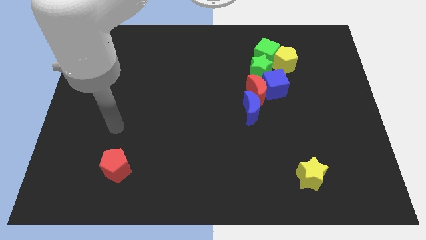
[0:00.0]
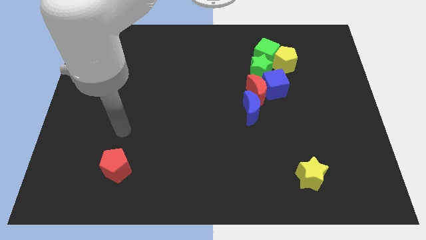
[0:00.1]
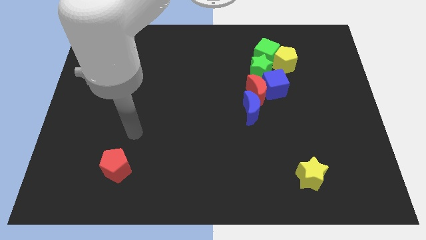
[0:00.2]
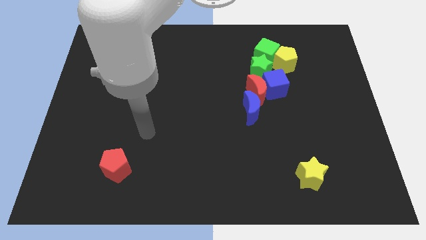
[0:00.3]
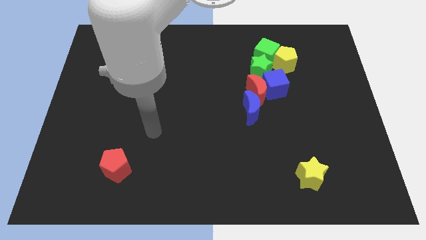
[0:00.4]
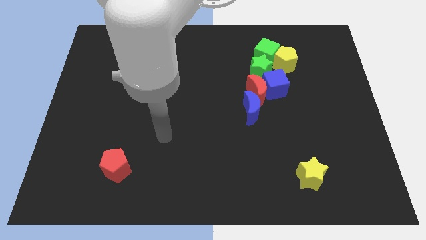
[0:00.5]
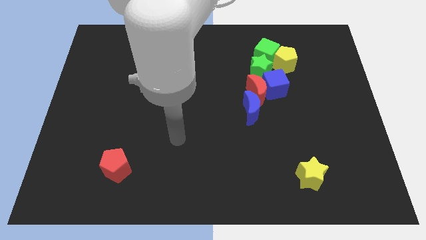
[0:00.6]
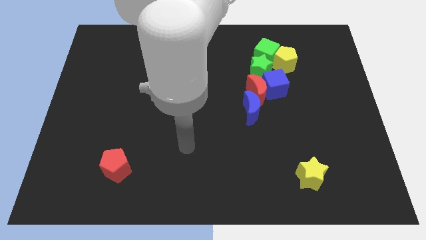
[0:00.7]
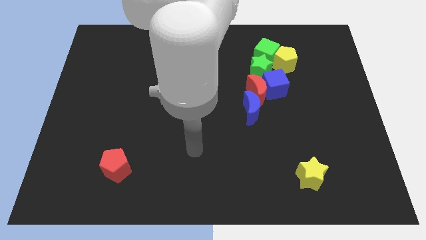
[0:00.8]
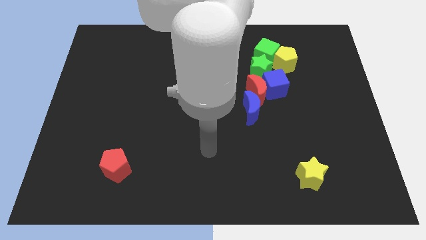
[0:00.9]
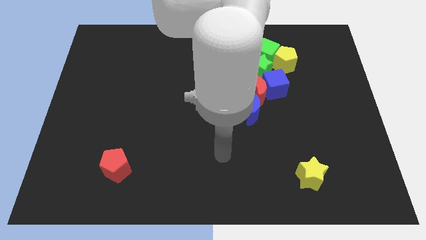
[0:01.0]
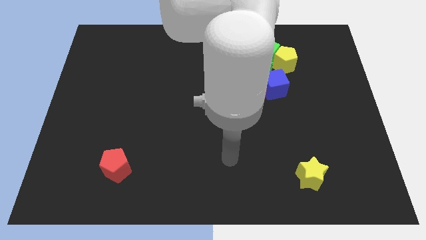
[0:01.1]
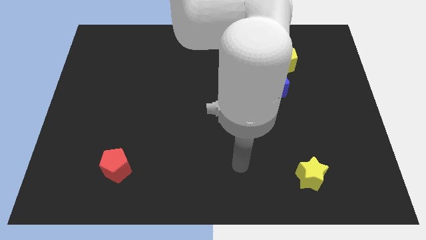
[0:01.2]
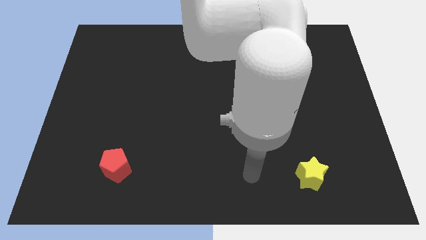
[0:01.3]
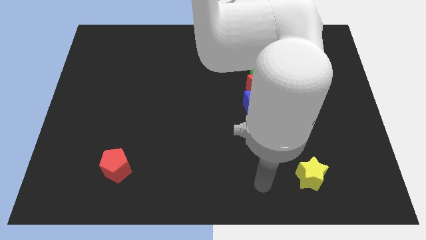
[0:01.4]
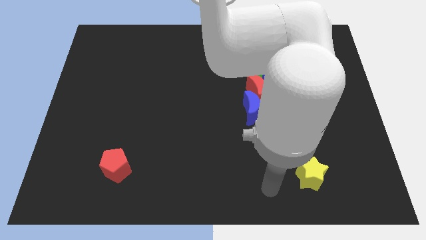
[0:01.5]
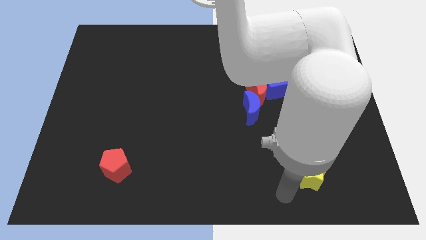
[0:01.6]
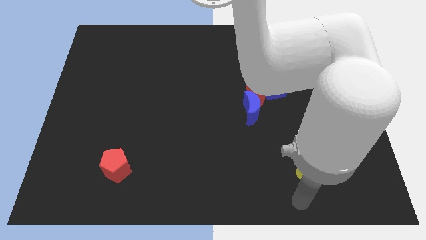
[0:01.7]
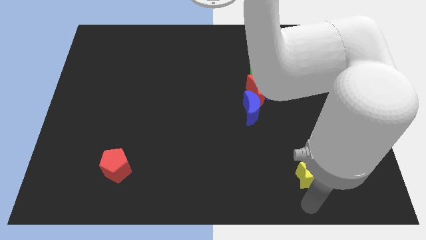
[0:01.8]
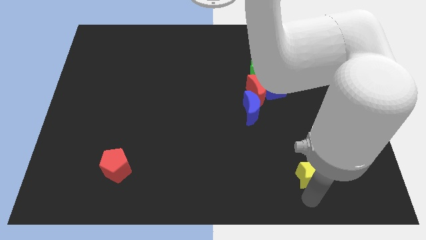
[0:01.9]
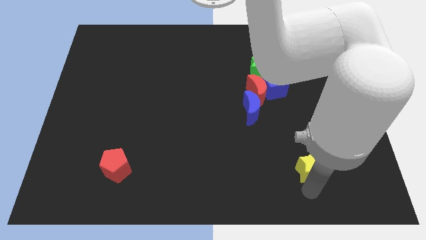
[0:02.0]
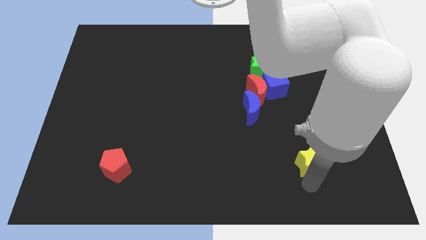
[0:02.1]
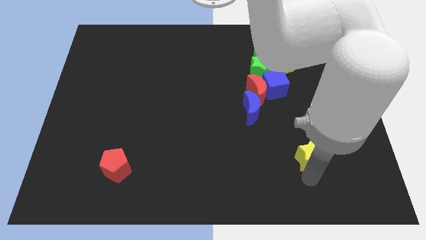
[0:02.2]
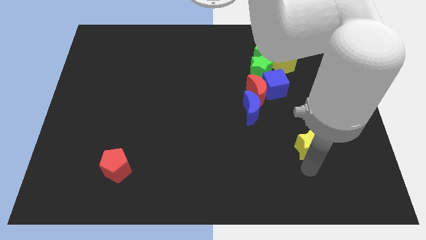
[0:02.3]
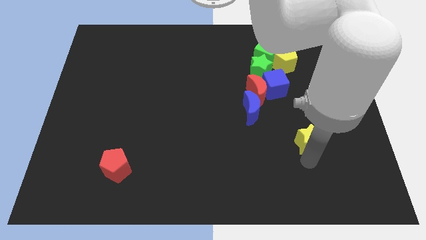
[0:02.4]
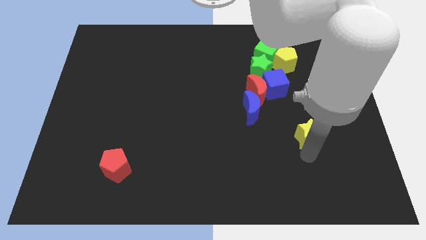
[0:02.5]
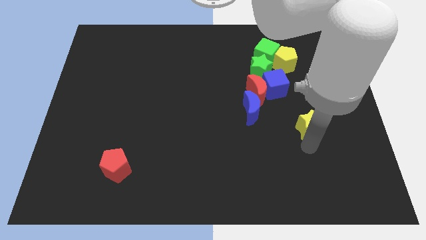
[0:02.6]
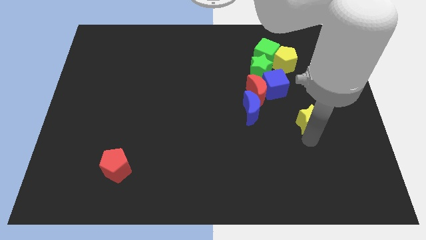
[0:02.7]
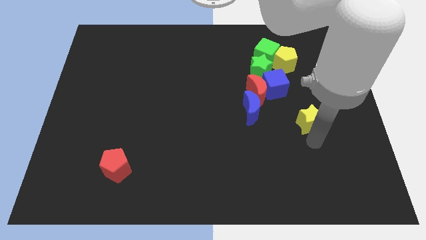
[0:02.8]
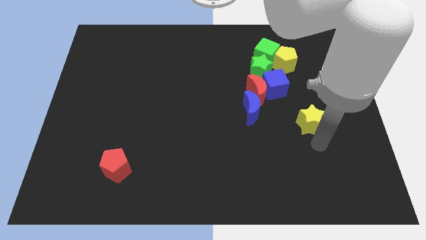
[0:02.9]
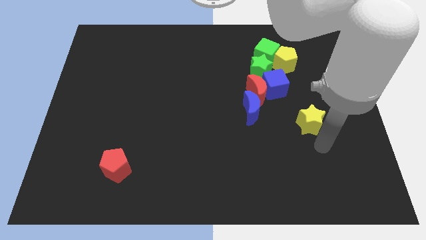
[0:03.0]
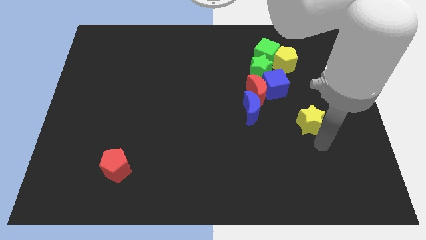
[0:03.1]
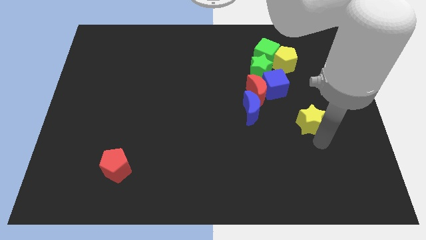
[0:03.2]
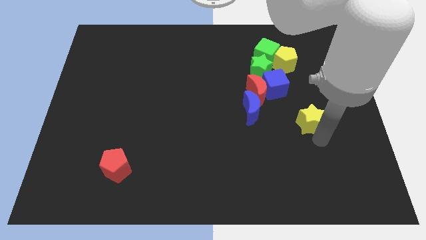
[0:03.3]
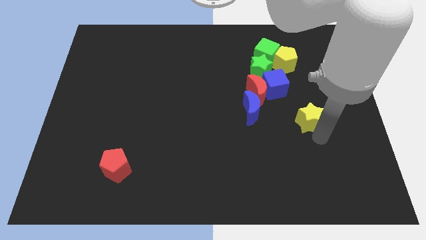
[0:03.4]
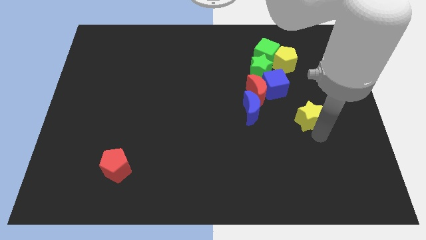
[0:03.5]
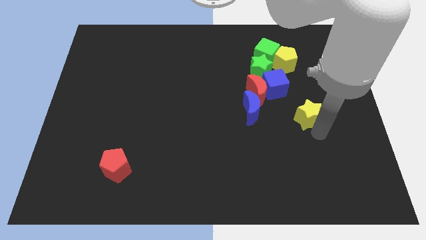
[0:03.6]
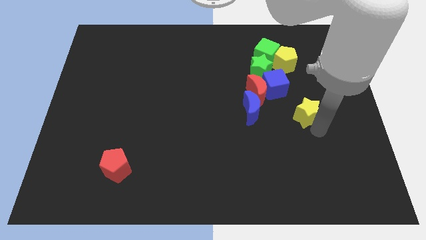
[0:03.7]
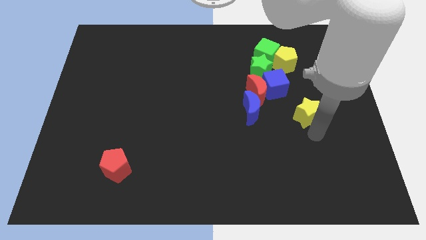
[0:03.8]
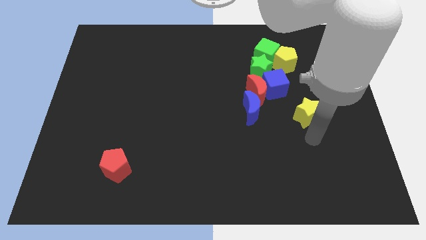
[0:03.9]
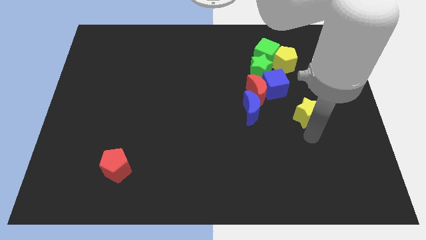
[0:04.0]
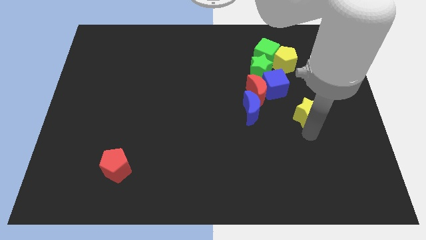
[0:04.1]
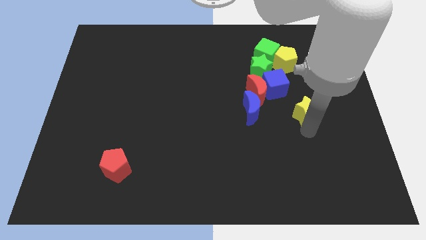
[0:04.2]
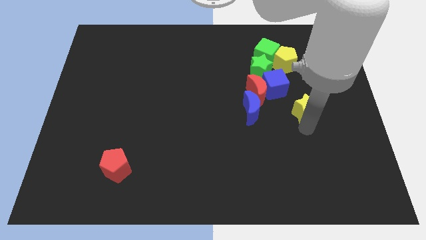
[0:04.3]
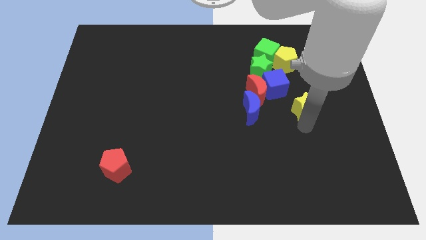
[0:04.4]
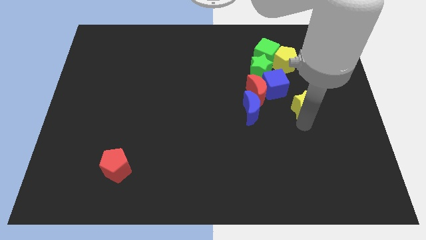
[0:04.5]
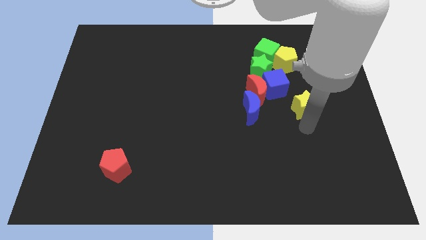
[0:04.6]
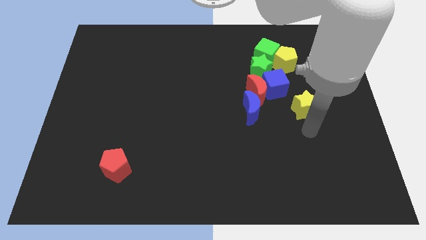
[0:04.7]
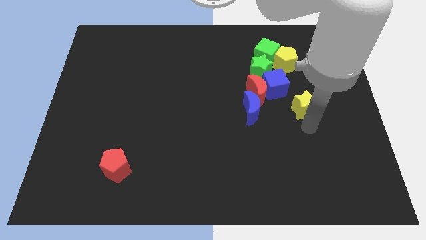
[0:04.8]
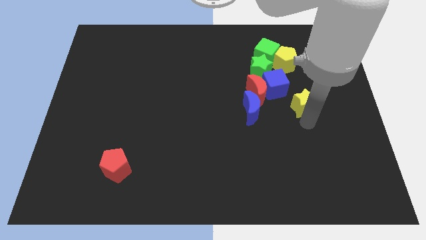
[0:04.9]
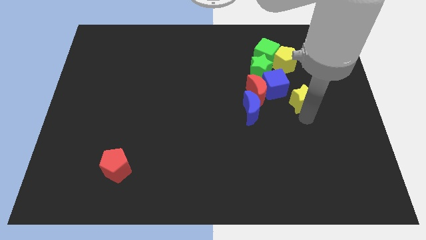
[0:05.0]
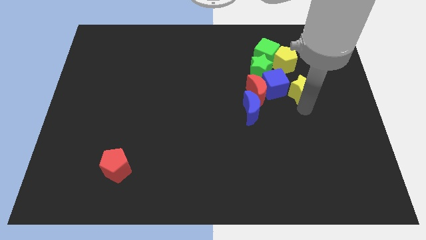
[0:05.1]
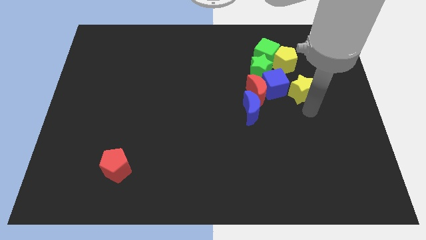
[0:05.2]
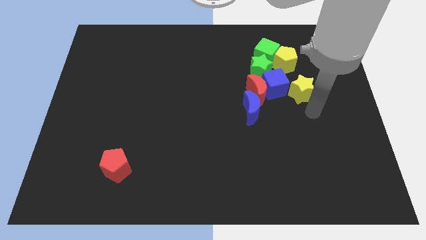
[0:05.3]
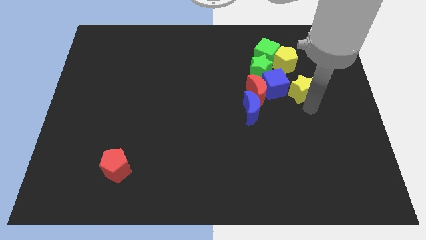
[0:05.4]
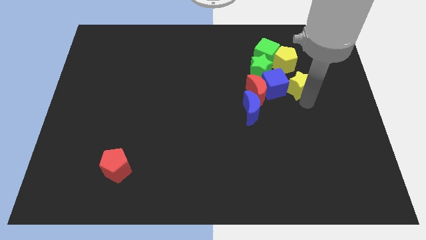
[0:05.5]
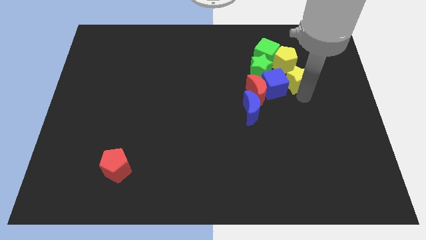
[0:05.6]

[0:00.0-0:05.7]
push the yellow star to the bottom right of the green cube

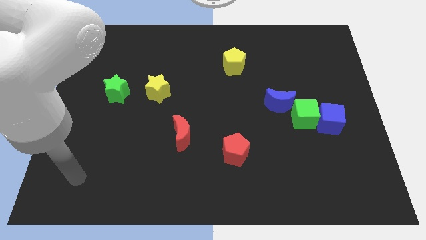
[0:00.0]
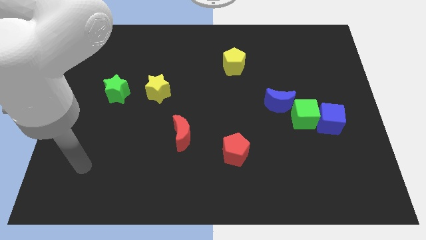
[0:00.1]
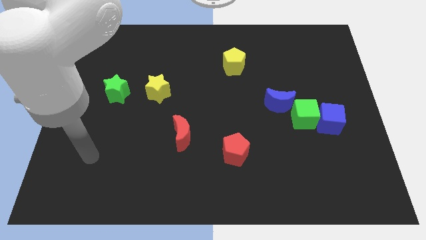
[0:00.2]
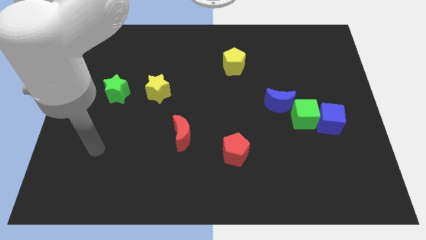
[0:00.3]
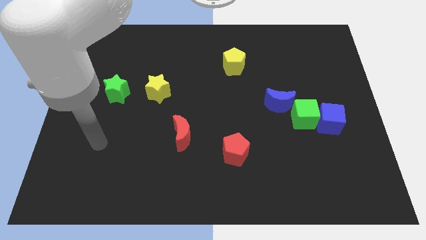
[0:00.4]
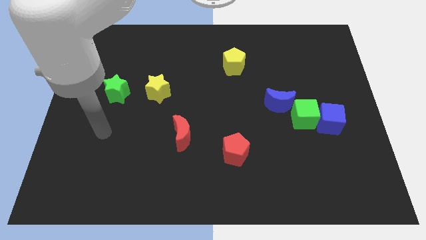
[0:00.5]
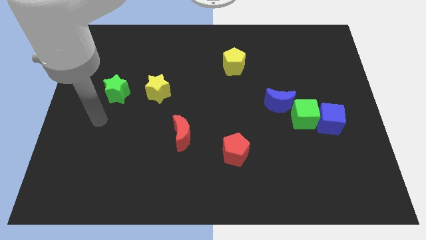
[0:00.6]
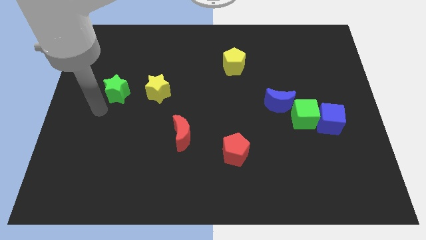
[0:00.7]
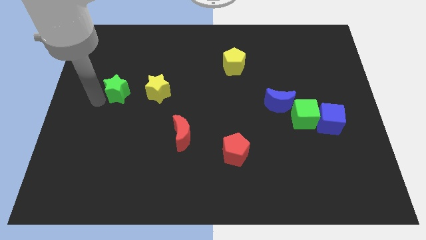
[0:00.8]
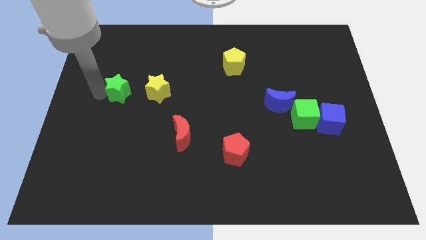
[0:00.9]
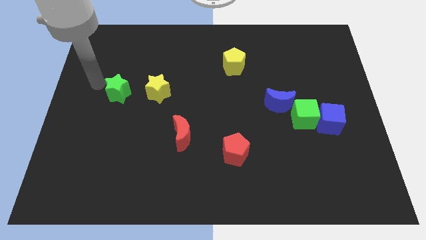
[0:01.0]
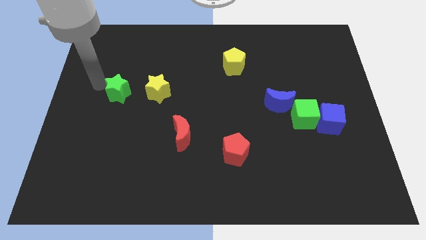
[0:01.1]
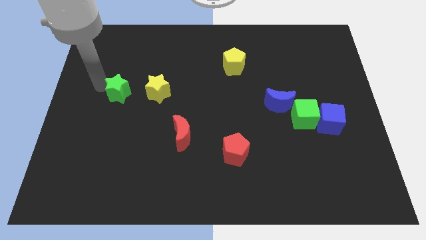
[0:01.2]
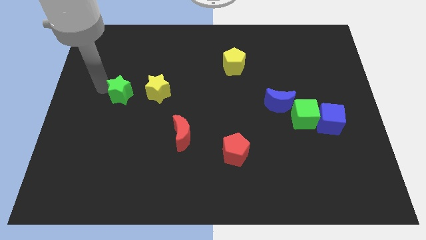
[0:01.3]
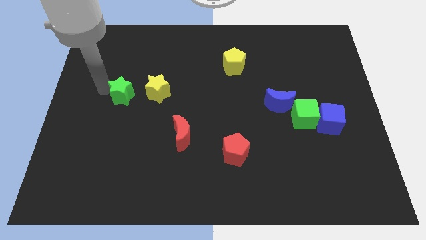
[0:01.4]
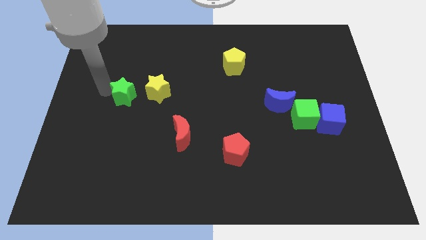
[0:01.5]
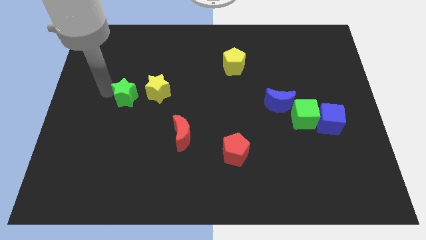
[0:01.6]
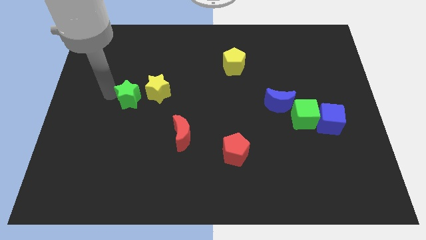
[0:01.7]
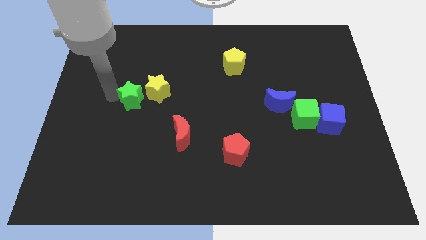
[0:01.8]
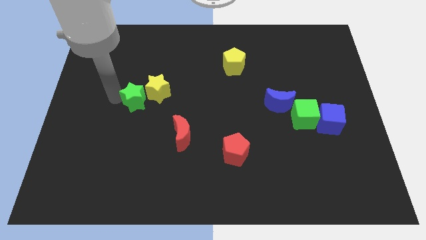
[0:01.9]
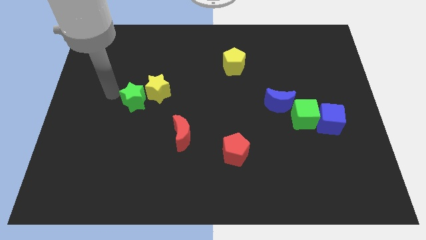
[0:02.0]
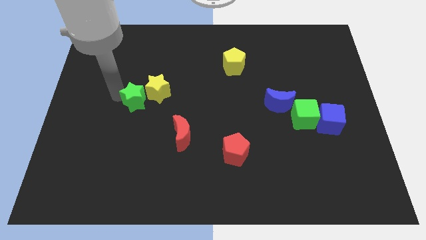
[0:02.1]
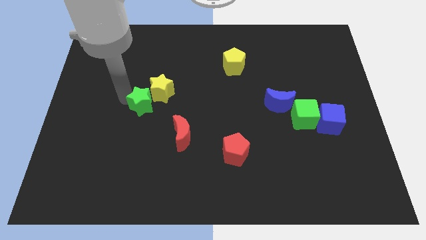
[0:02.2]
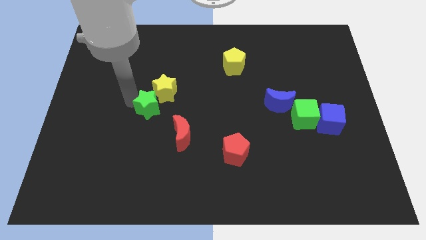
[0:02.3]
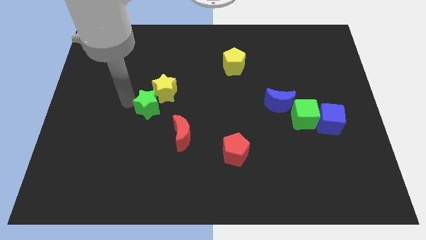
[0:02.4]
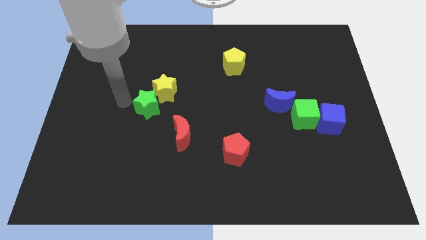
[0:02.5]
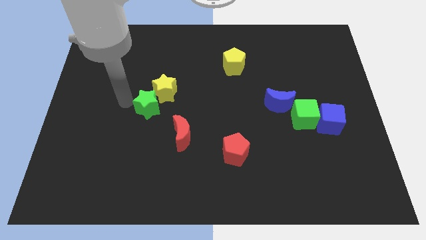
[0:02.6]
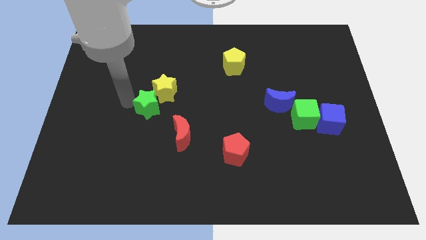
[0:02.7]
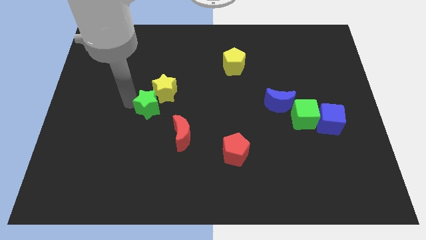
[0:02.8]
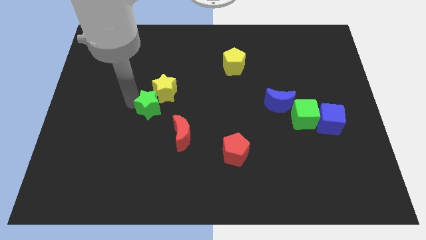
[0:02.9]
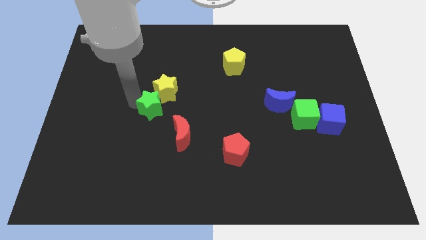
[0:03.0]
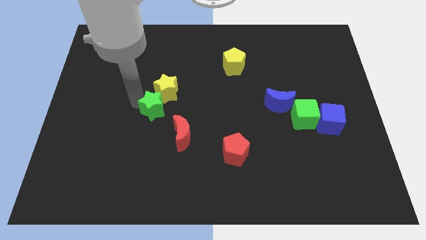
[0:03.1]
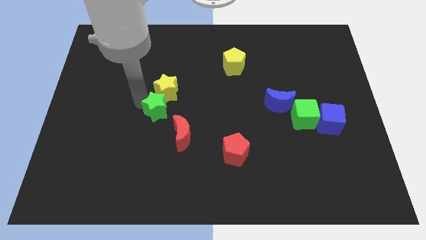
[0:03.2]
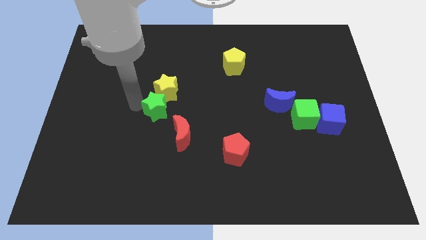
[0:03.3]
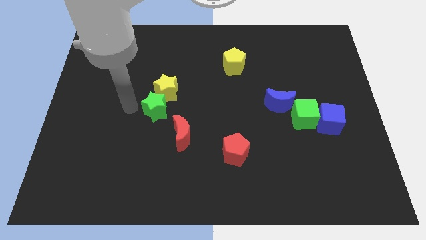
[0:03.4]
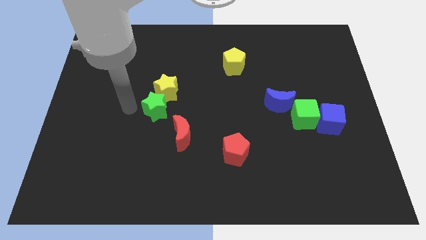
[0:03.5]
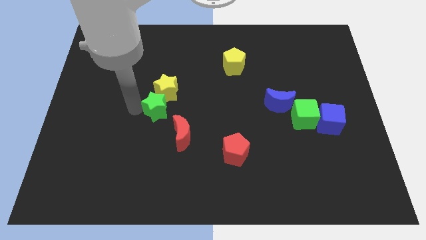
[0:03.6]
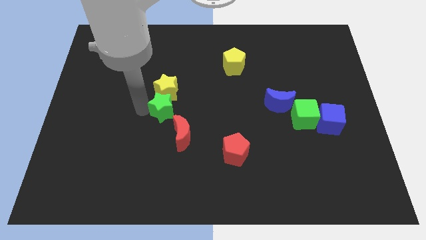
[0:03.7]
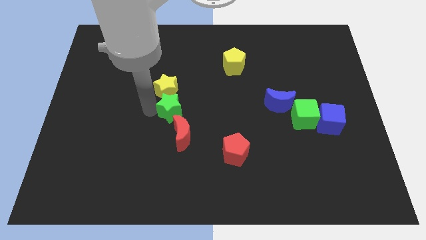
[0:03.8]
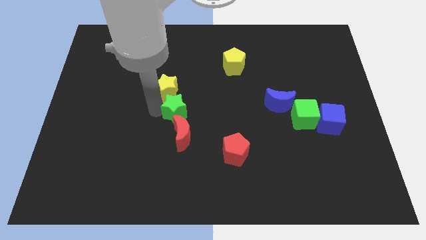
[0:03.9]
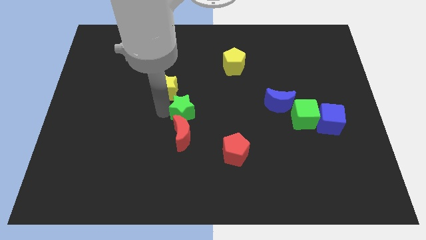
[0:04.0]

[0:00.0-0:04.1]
push the green star to the top right of the red moon
